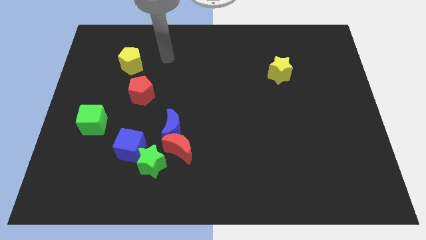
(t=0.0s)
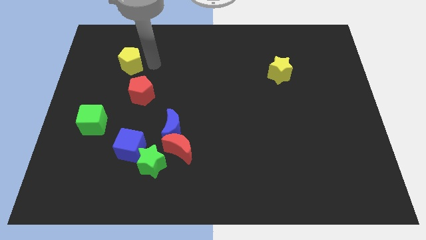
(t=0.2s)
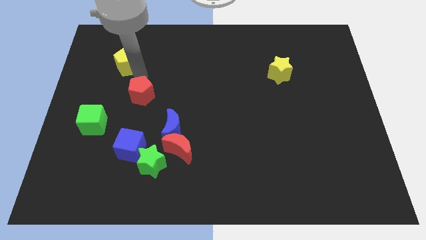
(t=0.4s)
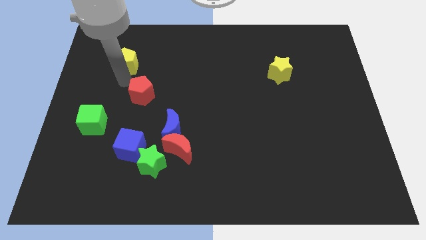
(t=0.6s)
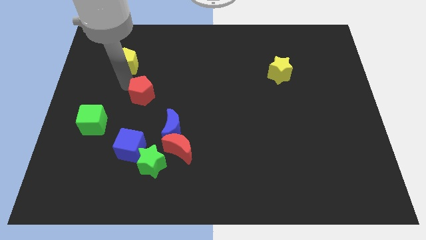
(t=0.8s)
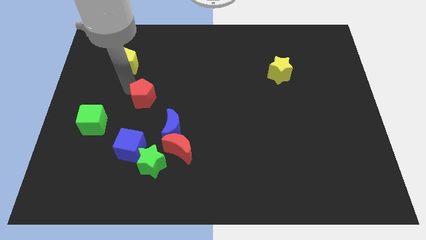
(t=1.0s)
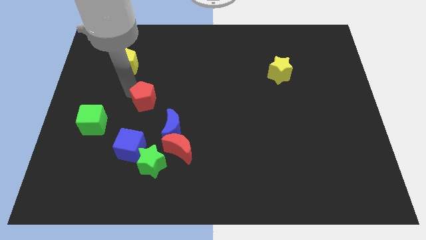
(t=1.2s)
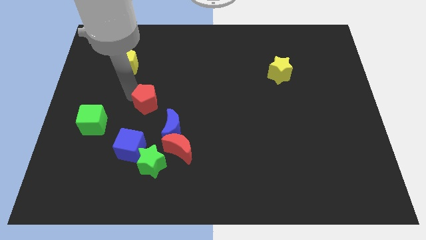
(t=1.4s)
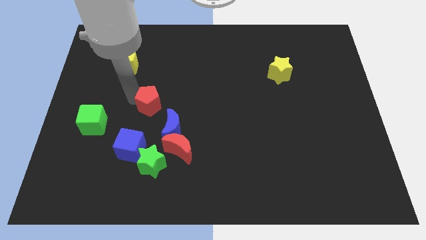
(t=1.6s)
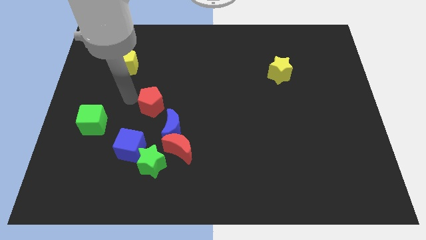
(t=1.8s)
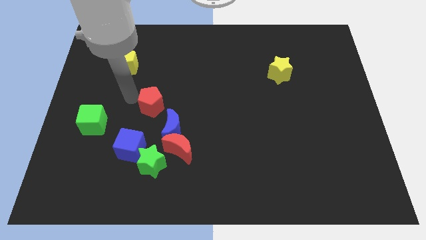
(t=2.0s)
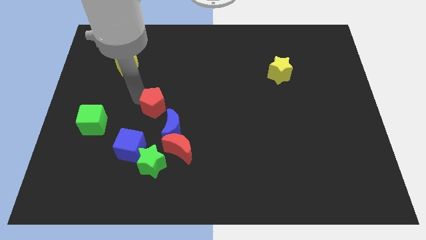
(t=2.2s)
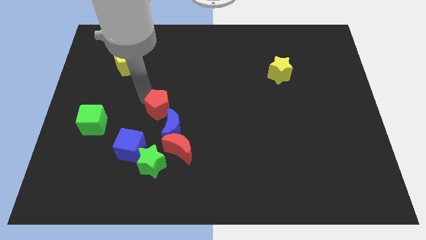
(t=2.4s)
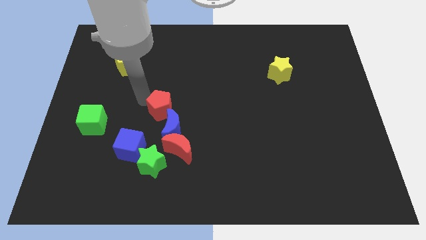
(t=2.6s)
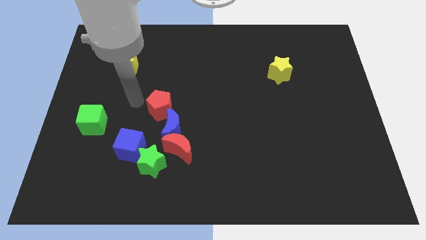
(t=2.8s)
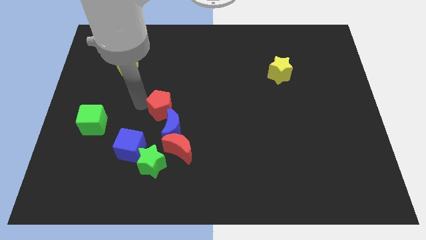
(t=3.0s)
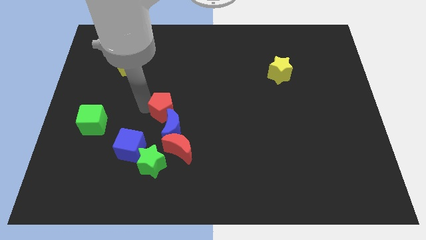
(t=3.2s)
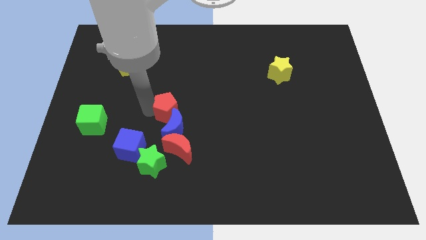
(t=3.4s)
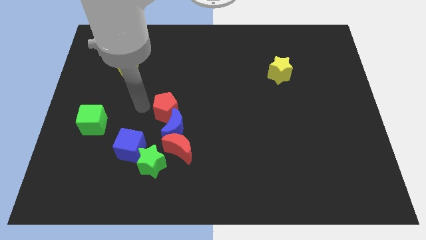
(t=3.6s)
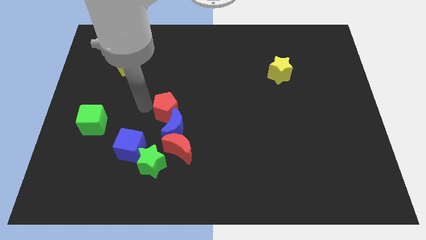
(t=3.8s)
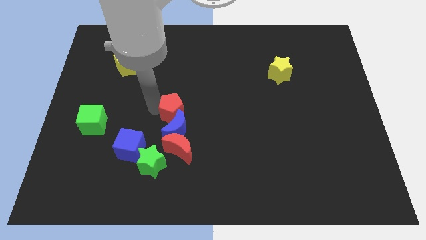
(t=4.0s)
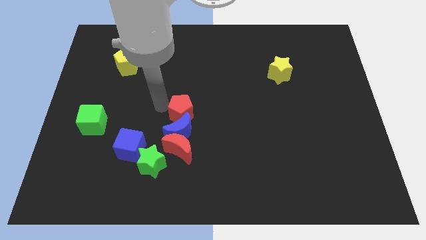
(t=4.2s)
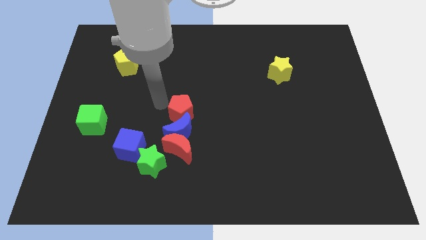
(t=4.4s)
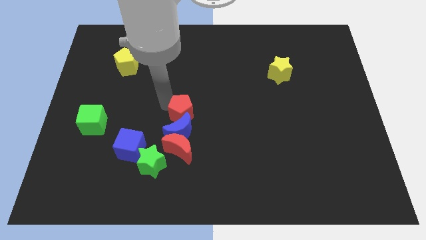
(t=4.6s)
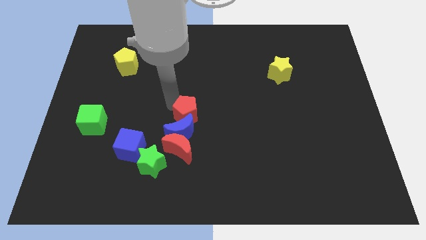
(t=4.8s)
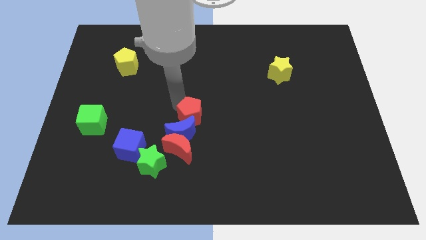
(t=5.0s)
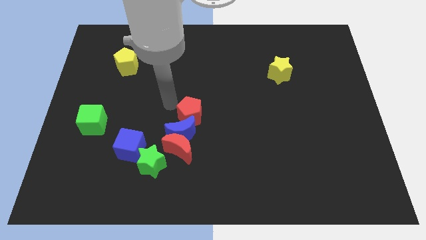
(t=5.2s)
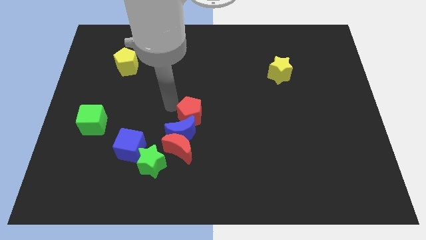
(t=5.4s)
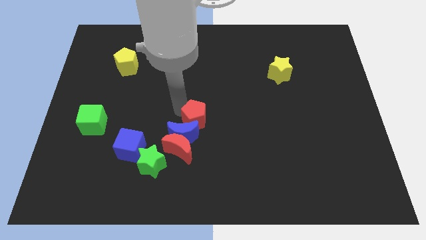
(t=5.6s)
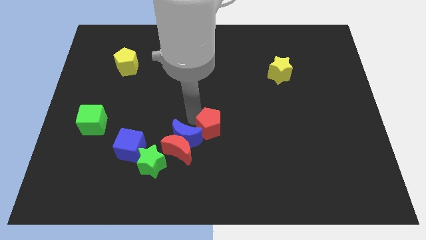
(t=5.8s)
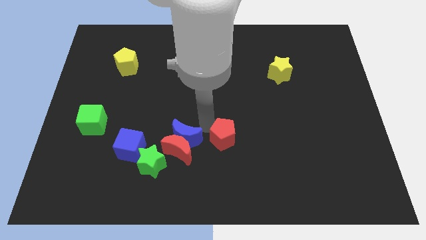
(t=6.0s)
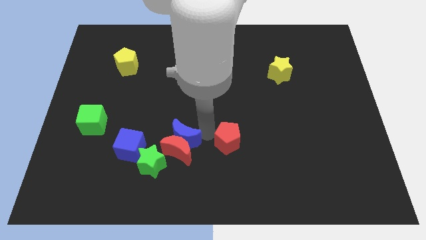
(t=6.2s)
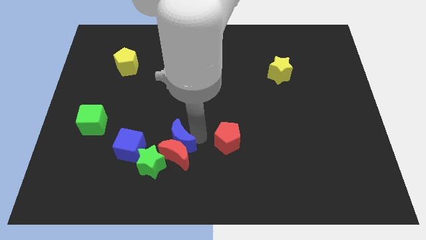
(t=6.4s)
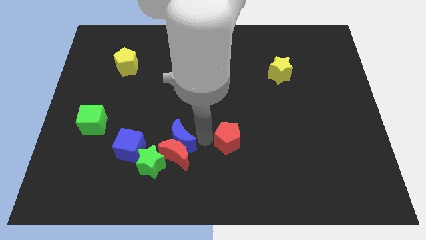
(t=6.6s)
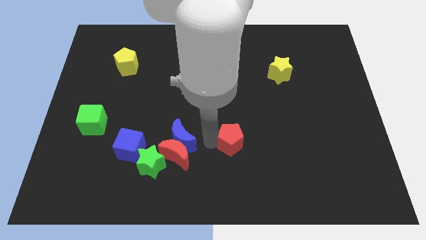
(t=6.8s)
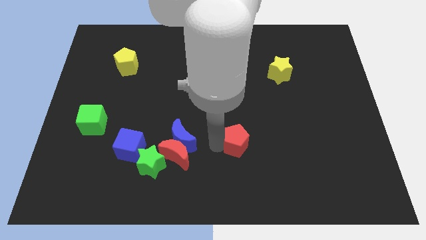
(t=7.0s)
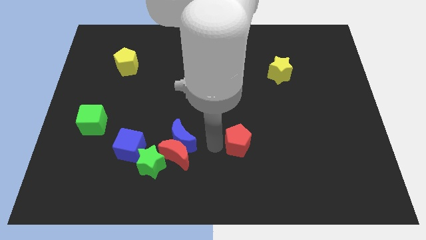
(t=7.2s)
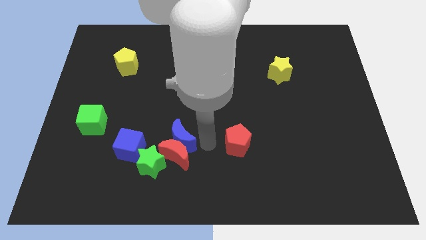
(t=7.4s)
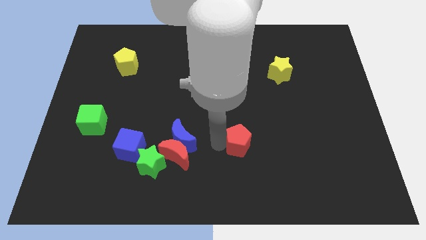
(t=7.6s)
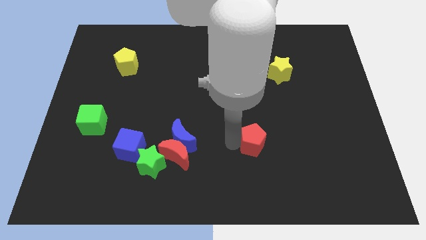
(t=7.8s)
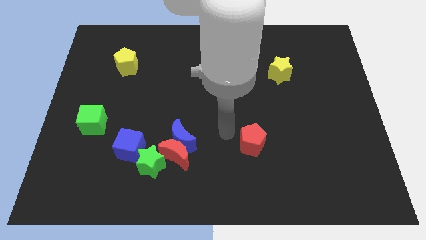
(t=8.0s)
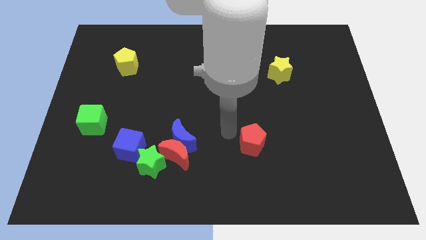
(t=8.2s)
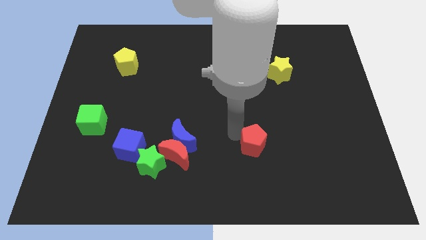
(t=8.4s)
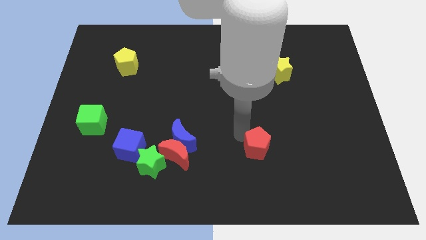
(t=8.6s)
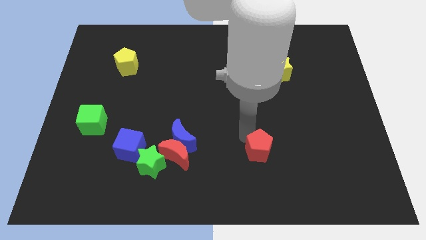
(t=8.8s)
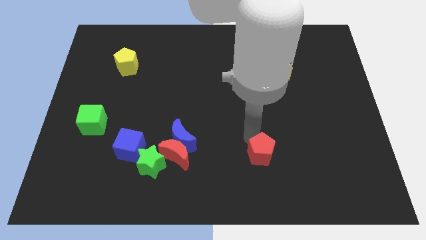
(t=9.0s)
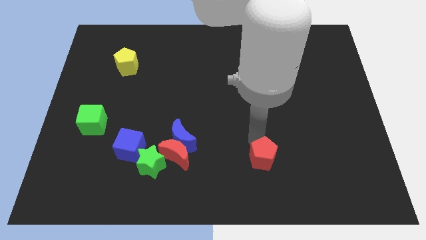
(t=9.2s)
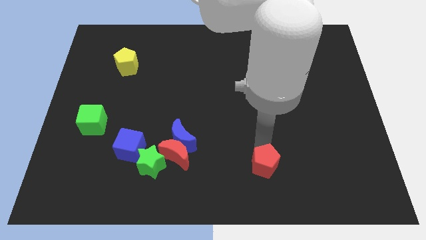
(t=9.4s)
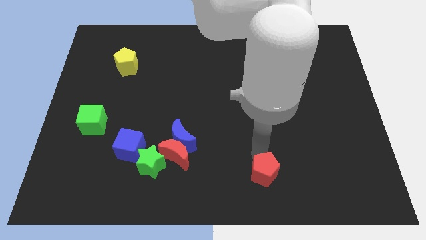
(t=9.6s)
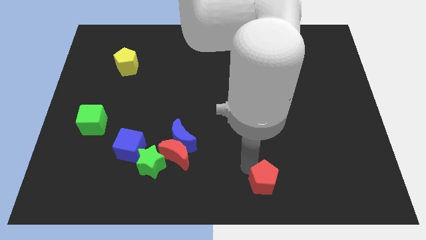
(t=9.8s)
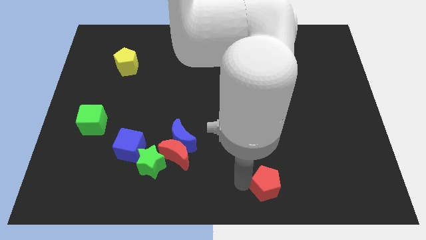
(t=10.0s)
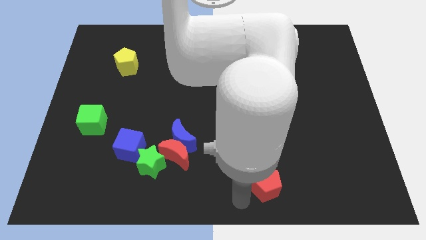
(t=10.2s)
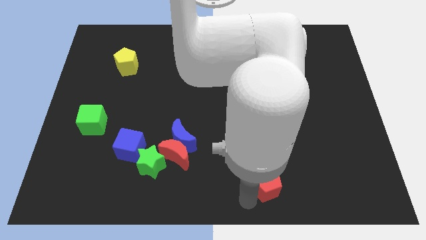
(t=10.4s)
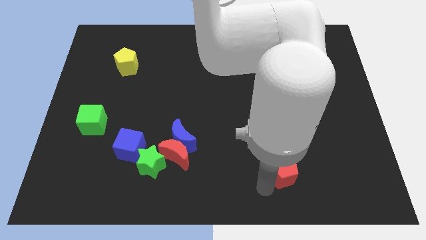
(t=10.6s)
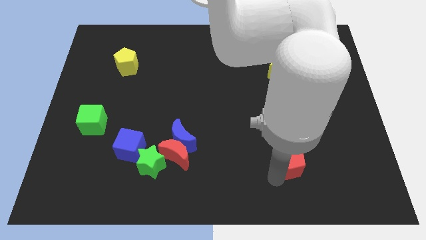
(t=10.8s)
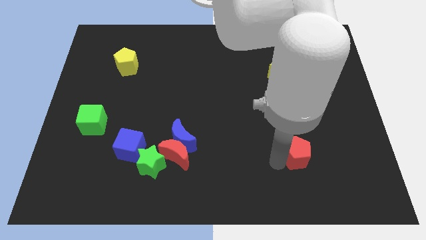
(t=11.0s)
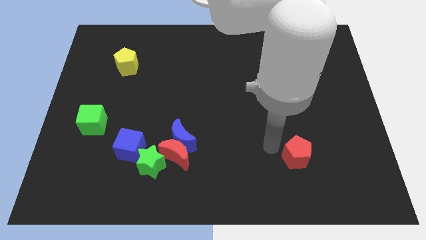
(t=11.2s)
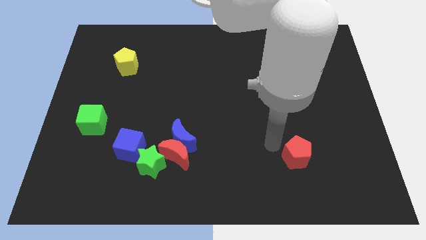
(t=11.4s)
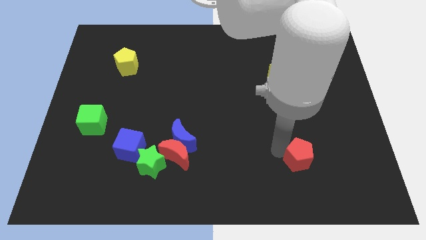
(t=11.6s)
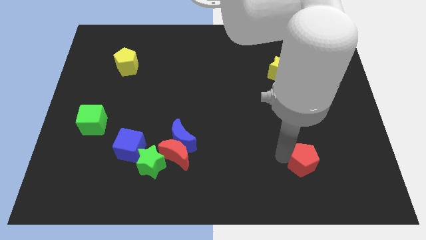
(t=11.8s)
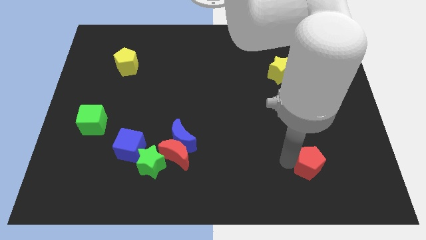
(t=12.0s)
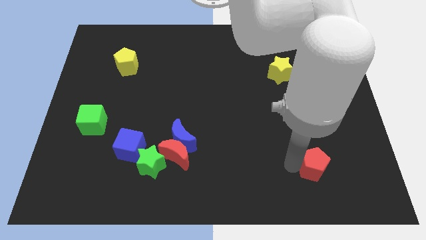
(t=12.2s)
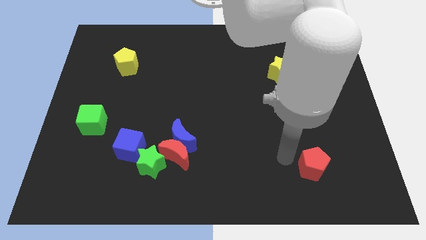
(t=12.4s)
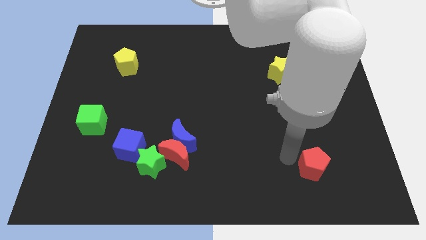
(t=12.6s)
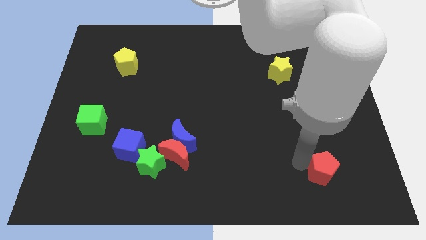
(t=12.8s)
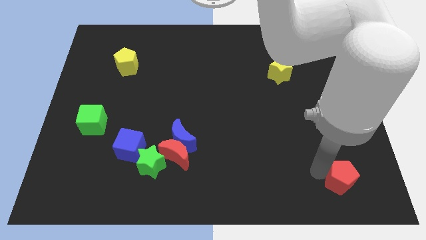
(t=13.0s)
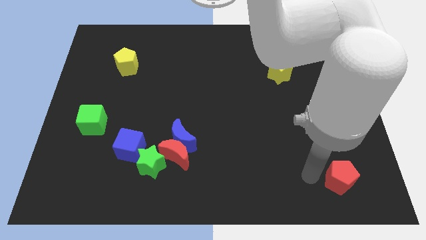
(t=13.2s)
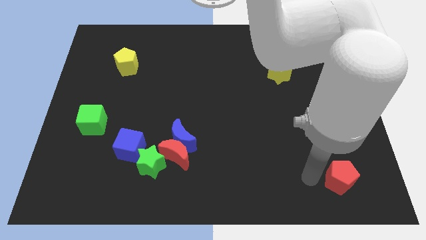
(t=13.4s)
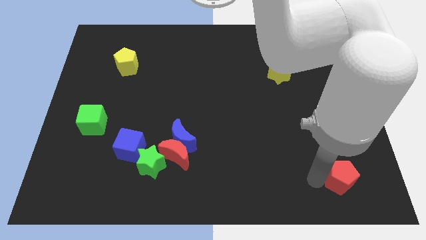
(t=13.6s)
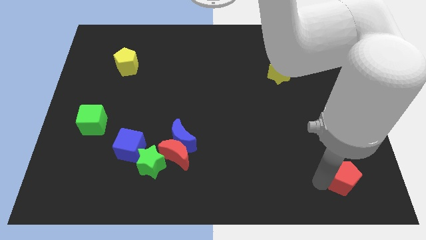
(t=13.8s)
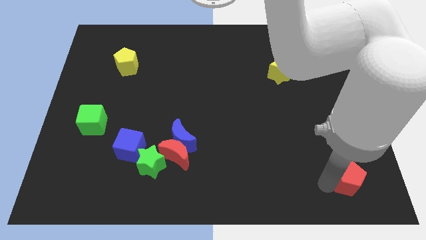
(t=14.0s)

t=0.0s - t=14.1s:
push the red pentagon to the bottom right
